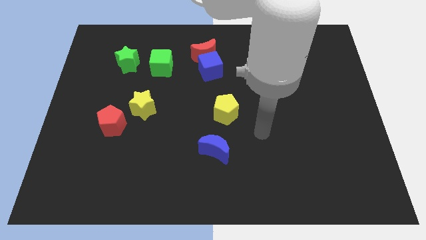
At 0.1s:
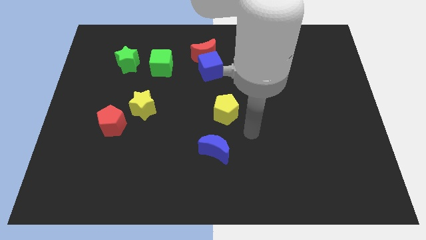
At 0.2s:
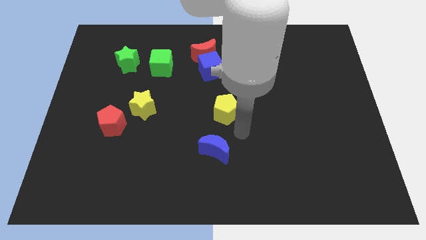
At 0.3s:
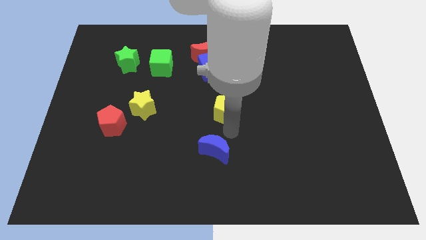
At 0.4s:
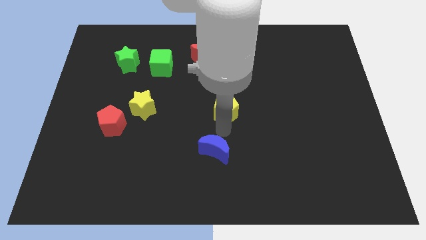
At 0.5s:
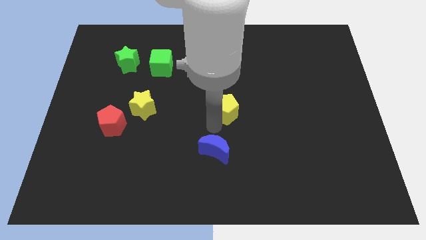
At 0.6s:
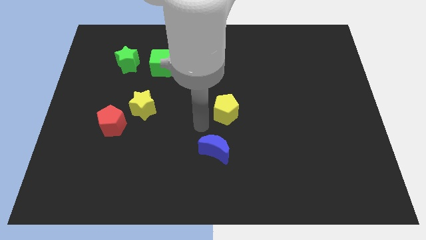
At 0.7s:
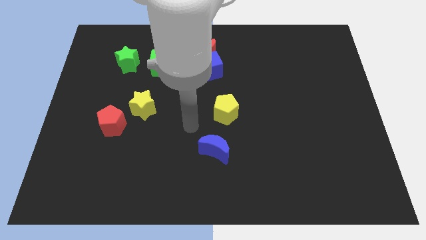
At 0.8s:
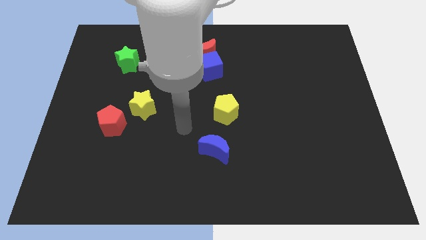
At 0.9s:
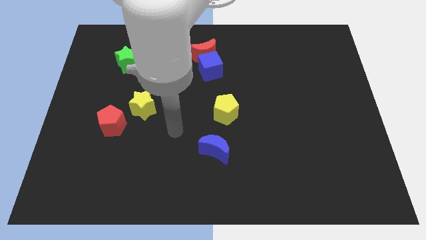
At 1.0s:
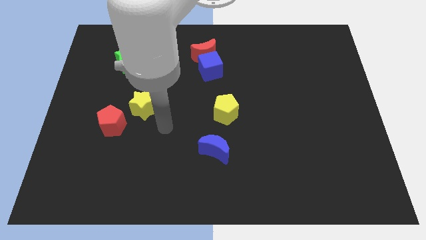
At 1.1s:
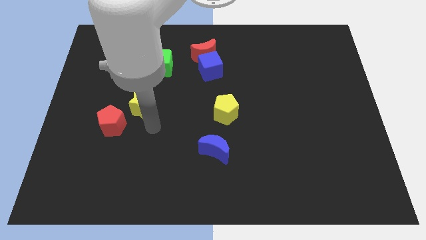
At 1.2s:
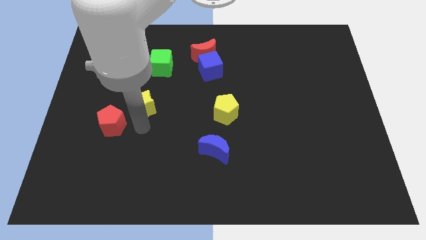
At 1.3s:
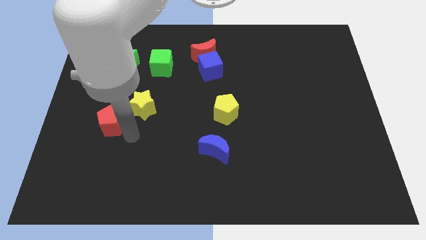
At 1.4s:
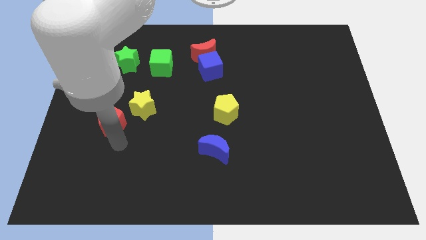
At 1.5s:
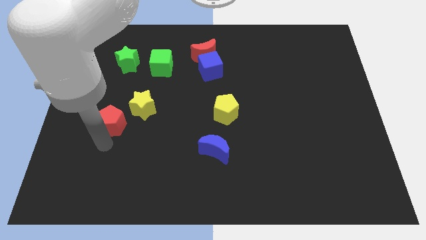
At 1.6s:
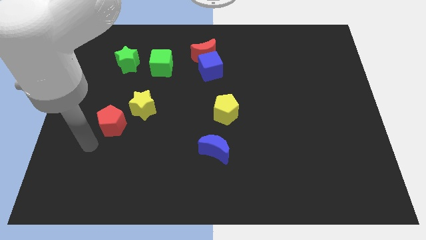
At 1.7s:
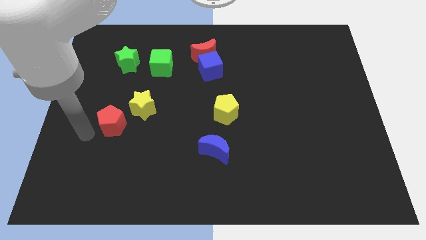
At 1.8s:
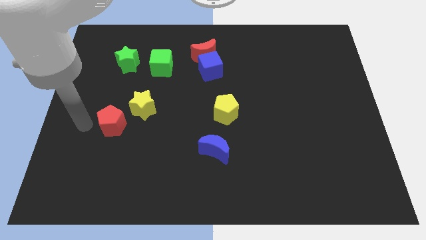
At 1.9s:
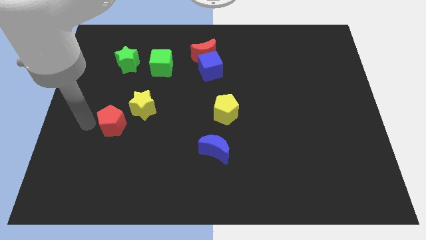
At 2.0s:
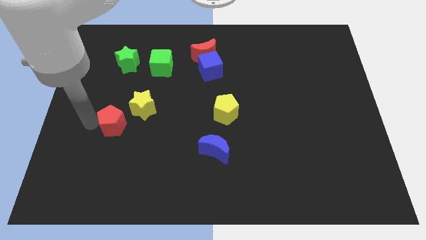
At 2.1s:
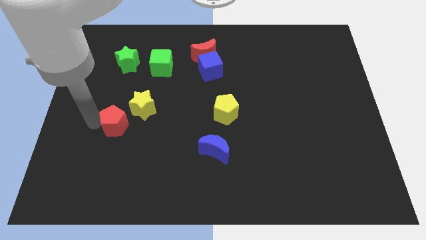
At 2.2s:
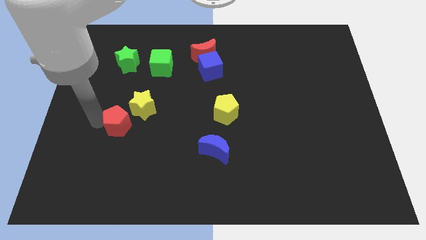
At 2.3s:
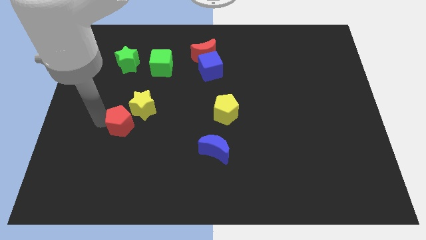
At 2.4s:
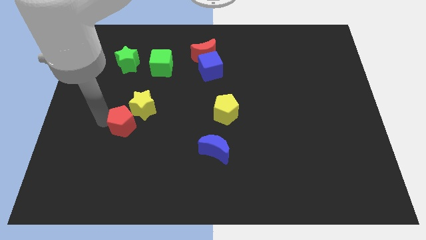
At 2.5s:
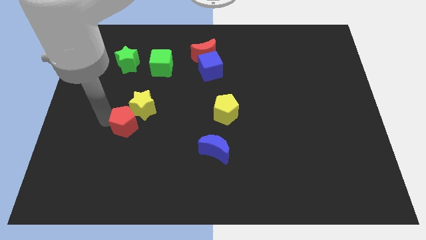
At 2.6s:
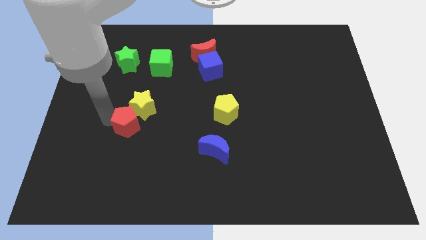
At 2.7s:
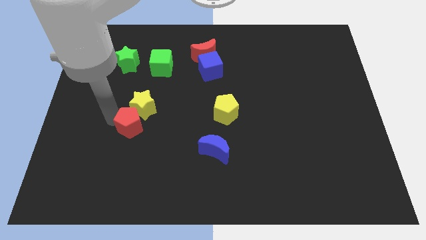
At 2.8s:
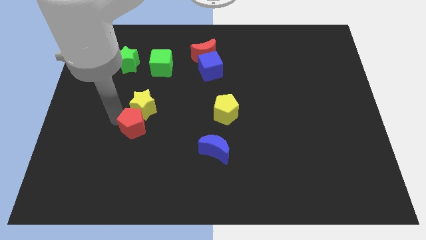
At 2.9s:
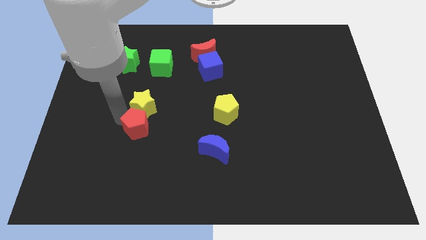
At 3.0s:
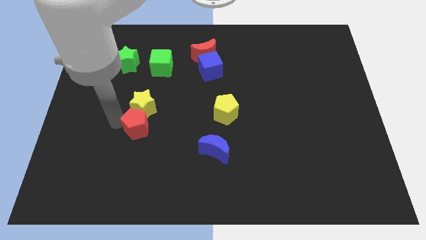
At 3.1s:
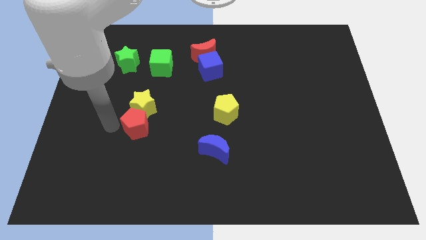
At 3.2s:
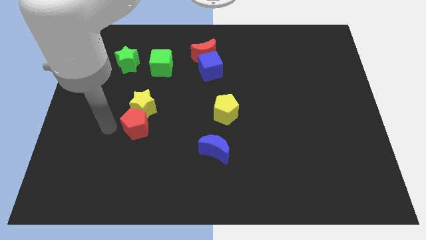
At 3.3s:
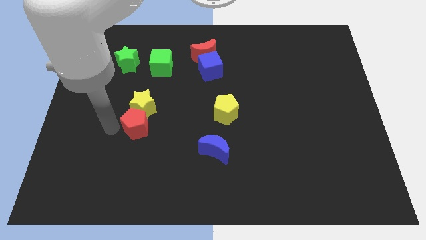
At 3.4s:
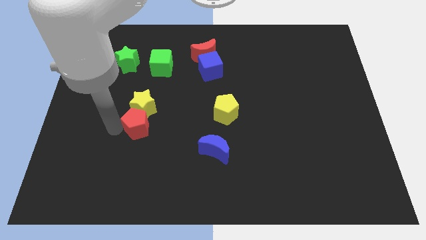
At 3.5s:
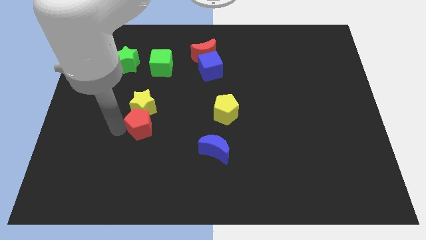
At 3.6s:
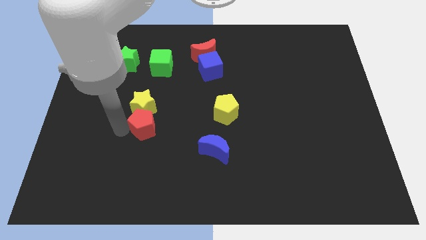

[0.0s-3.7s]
slightly push the red pentagon right

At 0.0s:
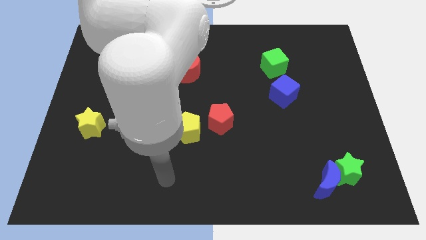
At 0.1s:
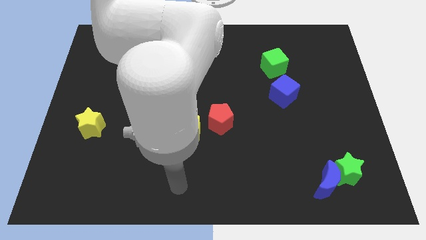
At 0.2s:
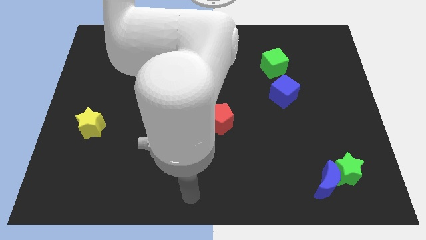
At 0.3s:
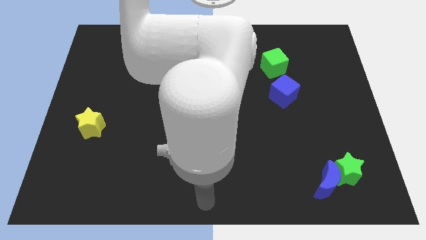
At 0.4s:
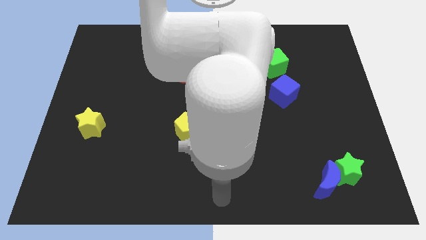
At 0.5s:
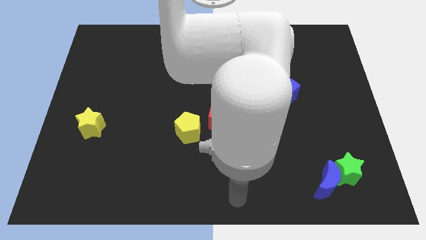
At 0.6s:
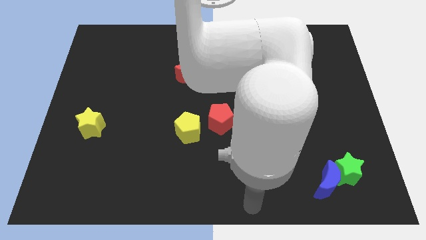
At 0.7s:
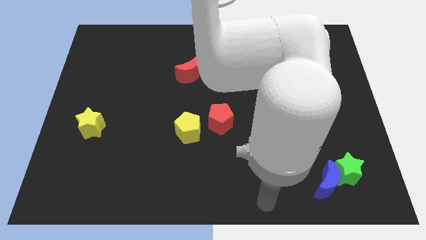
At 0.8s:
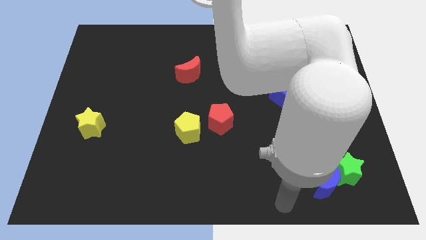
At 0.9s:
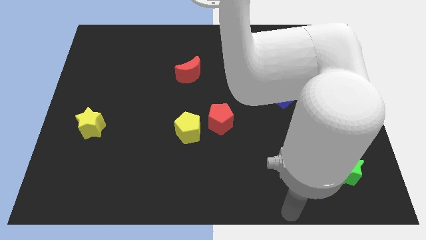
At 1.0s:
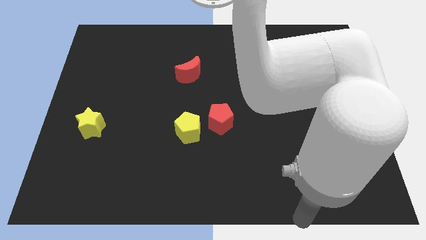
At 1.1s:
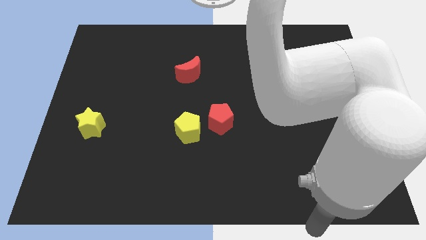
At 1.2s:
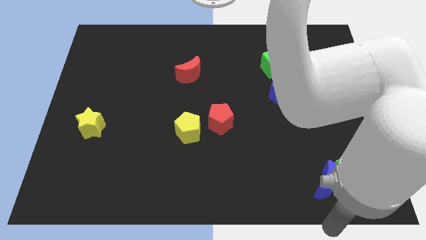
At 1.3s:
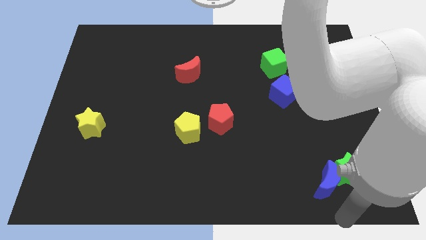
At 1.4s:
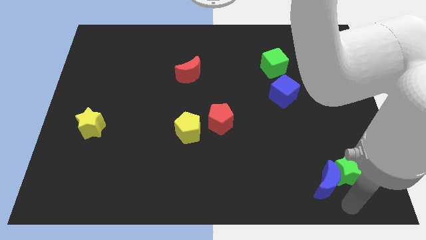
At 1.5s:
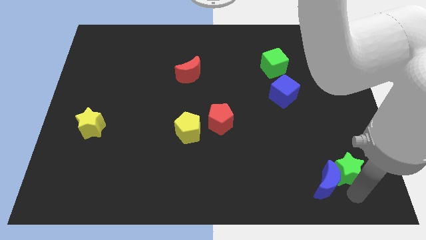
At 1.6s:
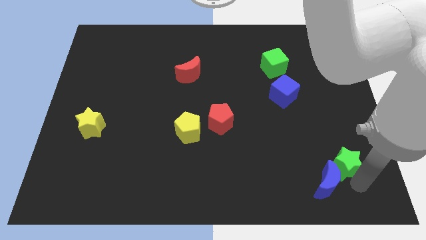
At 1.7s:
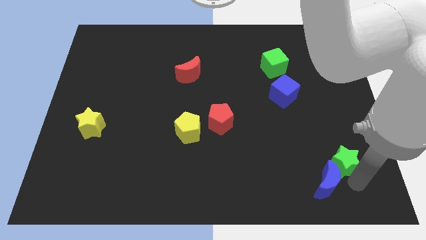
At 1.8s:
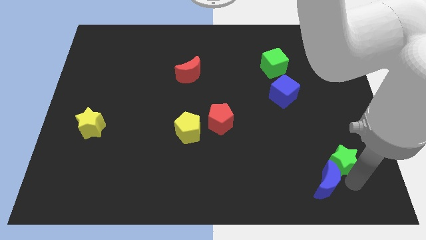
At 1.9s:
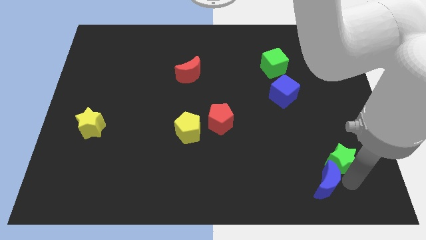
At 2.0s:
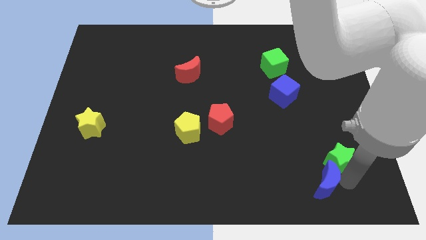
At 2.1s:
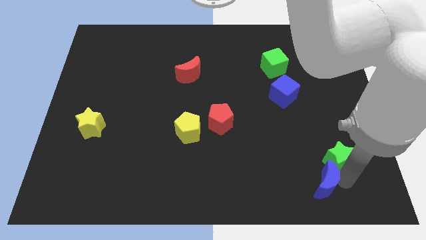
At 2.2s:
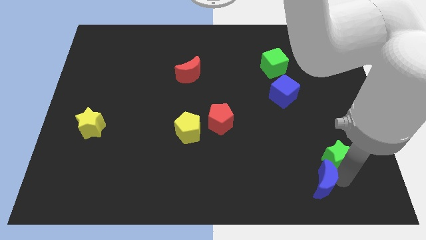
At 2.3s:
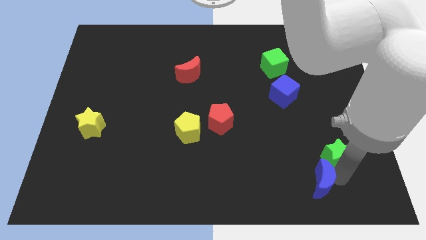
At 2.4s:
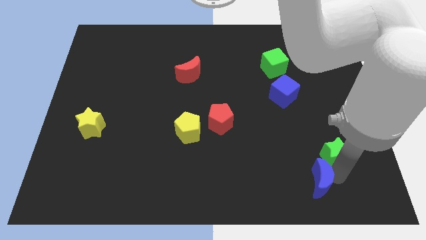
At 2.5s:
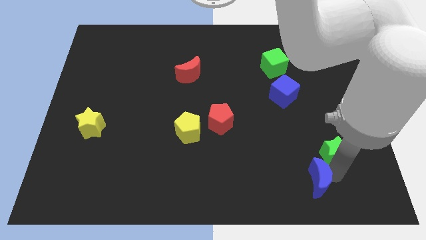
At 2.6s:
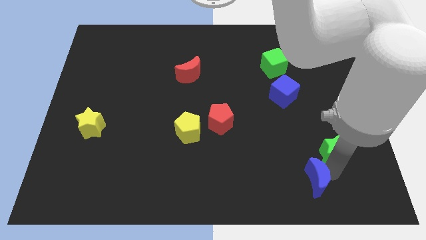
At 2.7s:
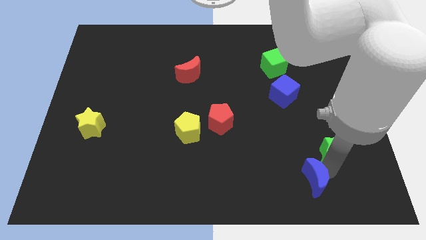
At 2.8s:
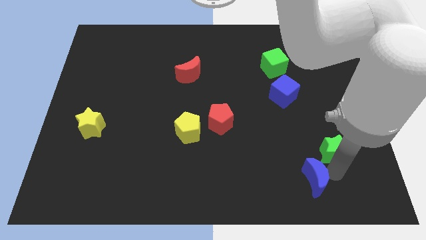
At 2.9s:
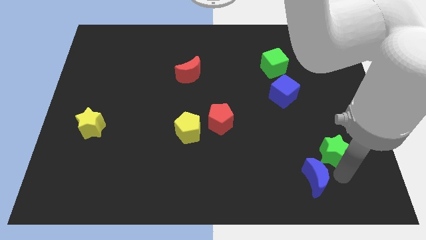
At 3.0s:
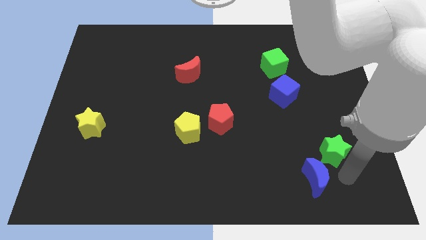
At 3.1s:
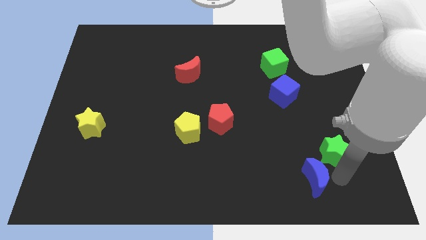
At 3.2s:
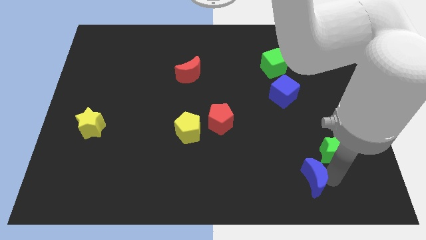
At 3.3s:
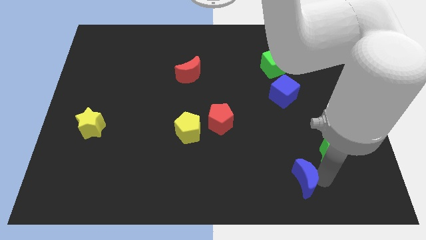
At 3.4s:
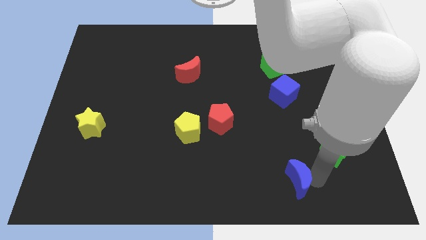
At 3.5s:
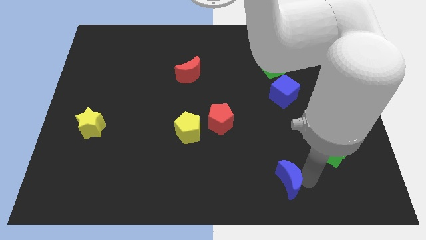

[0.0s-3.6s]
push the blue moon to the left slightly

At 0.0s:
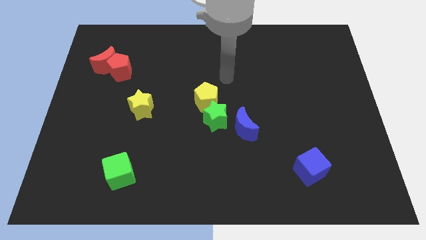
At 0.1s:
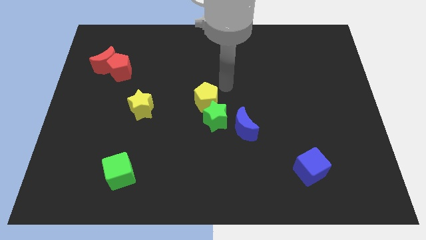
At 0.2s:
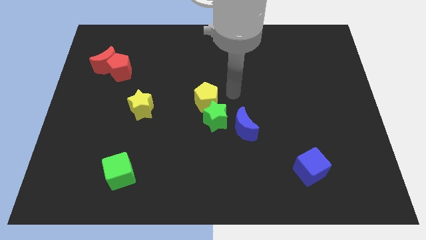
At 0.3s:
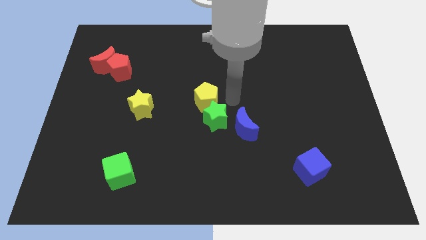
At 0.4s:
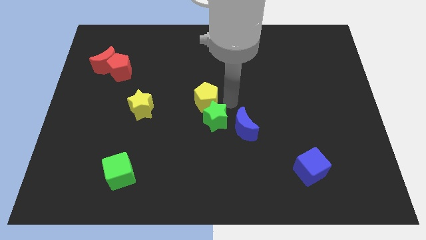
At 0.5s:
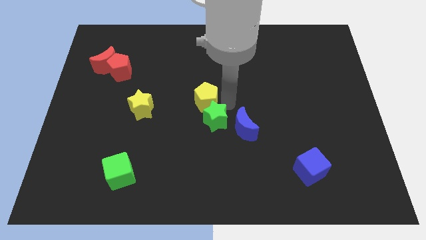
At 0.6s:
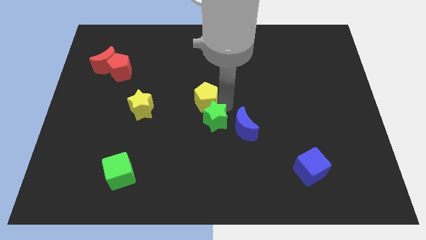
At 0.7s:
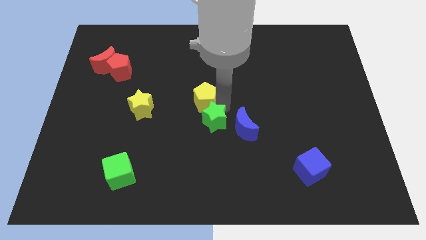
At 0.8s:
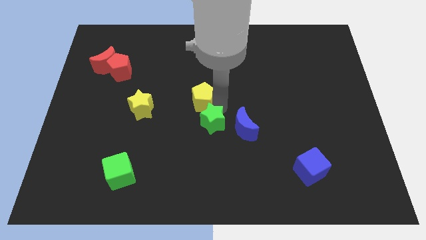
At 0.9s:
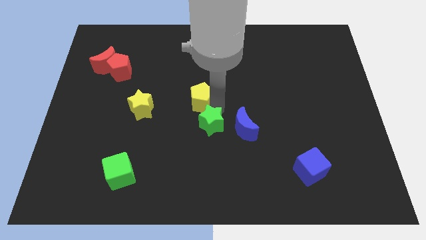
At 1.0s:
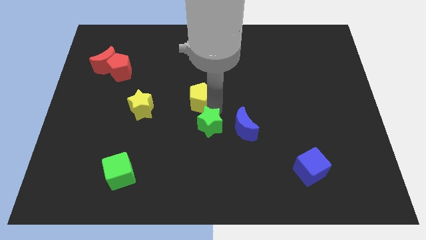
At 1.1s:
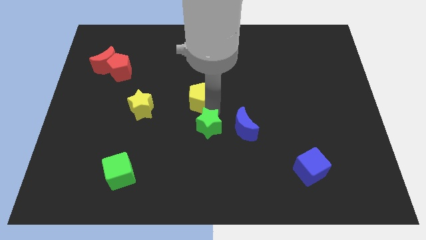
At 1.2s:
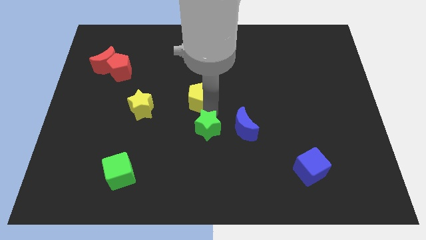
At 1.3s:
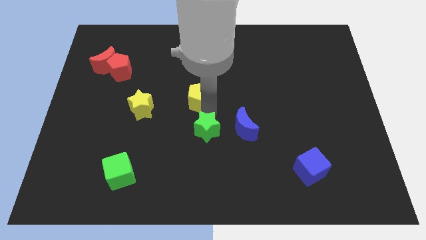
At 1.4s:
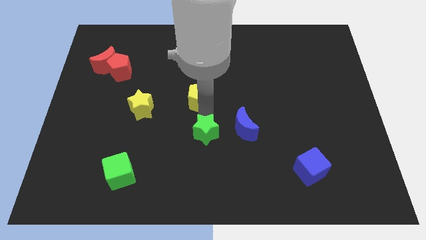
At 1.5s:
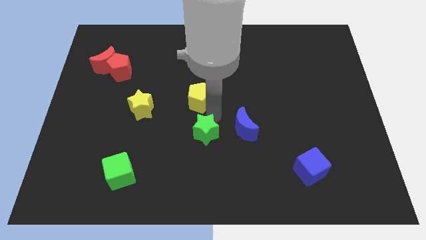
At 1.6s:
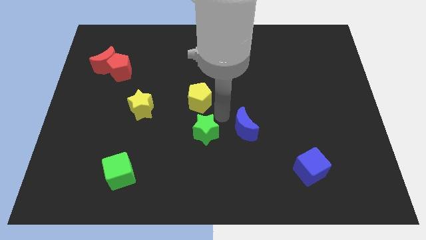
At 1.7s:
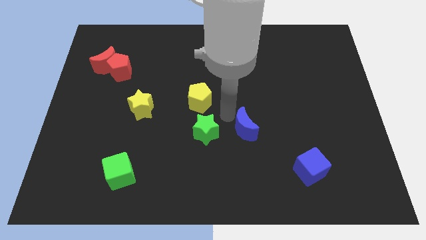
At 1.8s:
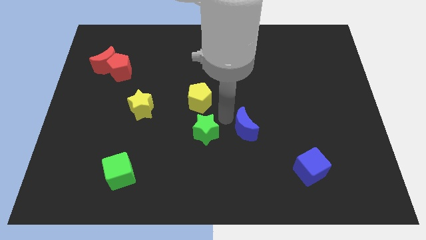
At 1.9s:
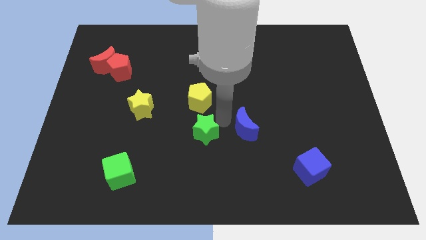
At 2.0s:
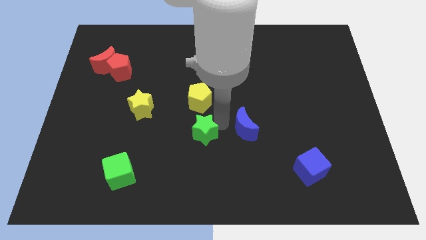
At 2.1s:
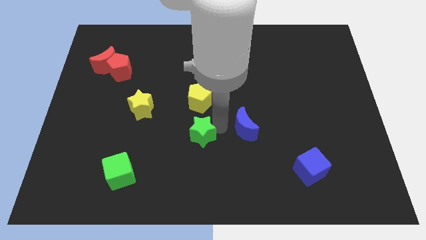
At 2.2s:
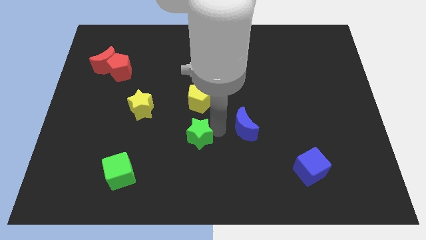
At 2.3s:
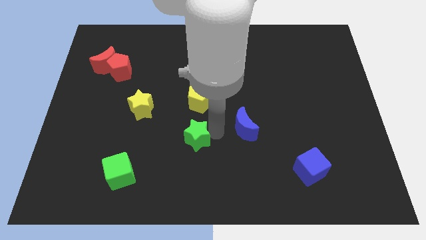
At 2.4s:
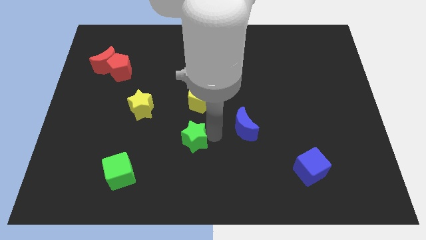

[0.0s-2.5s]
move the green star diagonally downwards and to the left a little
